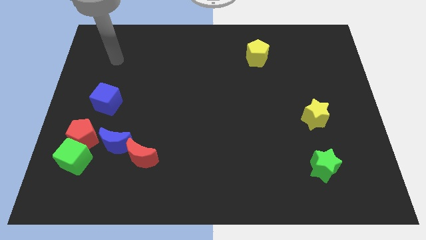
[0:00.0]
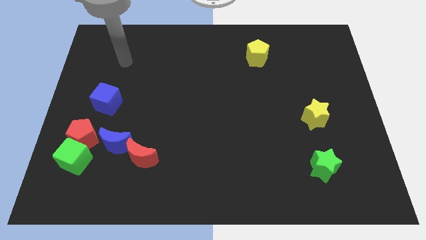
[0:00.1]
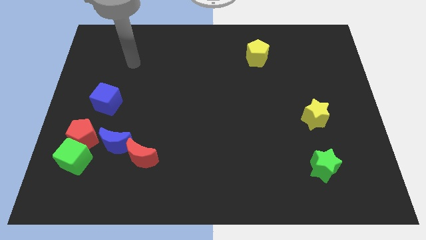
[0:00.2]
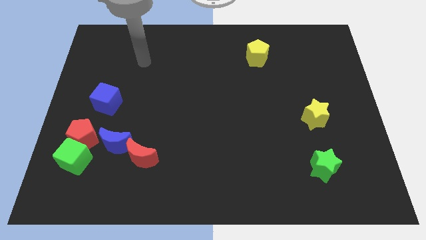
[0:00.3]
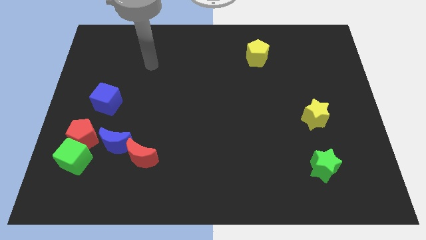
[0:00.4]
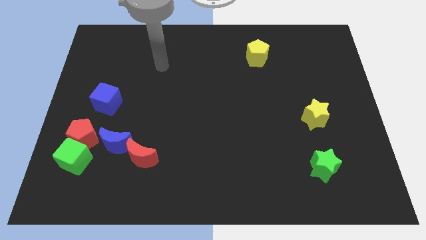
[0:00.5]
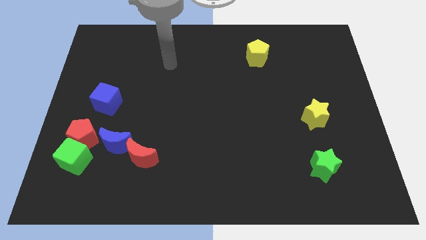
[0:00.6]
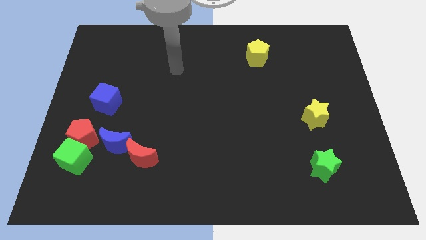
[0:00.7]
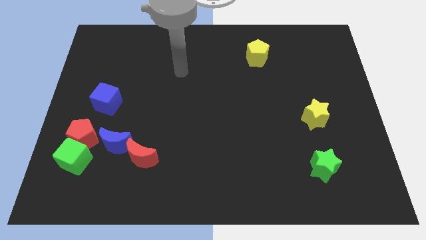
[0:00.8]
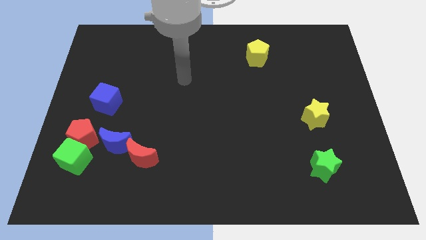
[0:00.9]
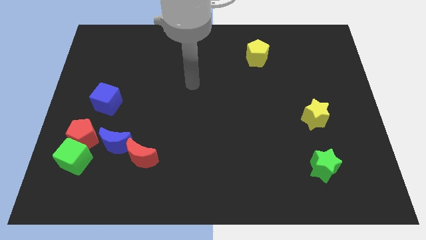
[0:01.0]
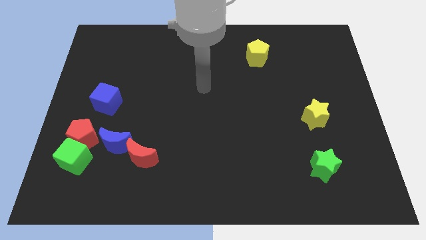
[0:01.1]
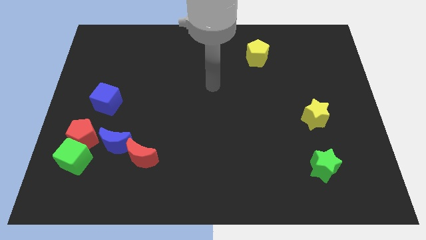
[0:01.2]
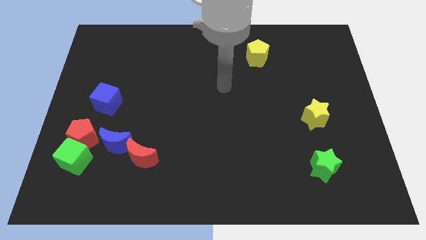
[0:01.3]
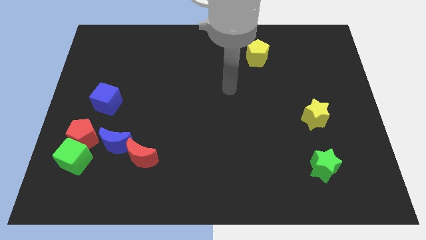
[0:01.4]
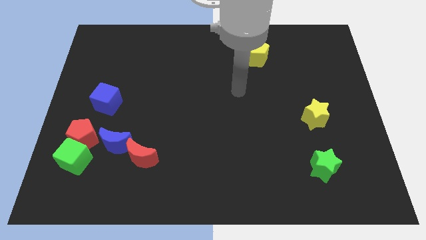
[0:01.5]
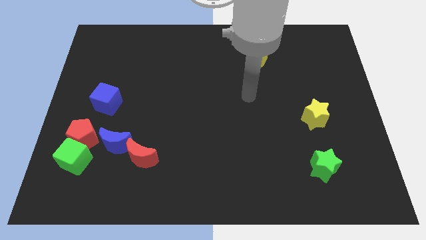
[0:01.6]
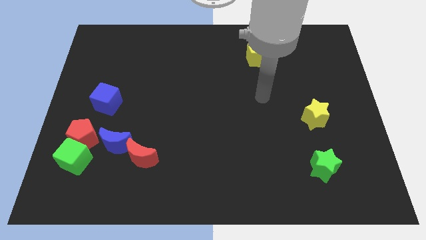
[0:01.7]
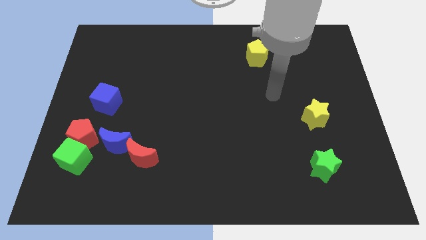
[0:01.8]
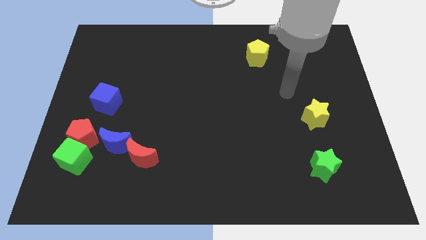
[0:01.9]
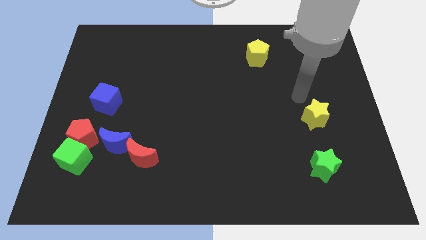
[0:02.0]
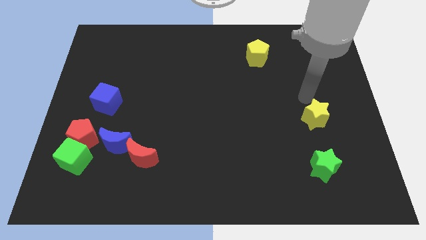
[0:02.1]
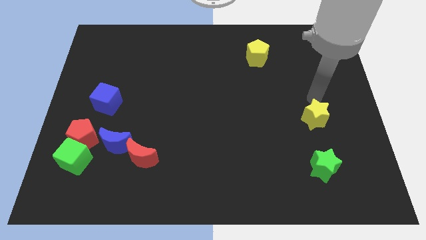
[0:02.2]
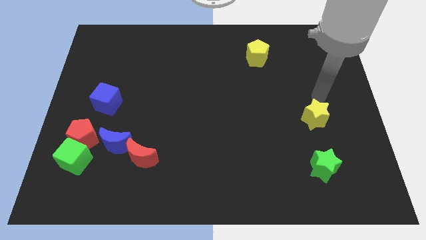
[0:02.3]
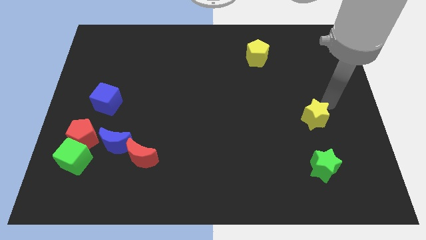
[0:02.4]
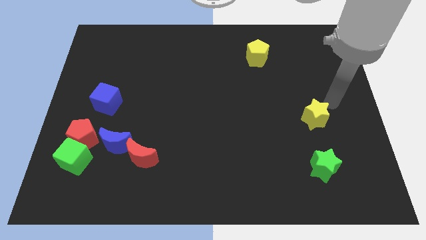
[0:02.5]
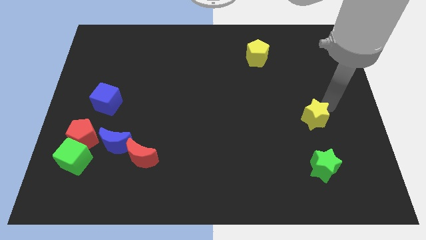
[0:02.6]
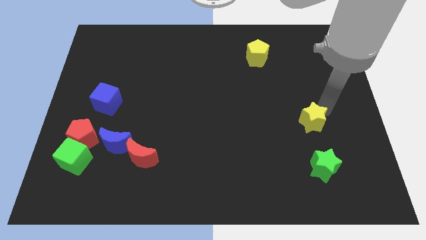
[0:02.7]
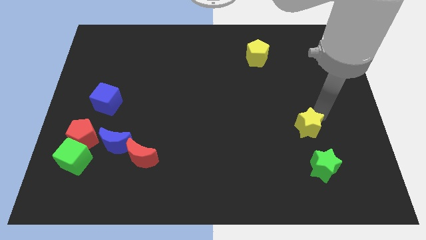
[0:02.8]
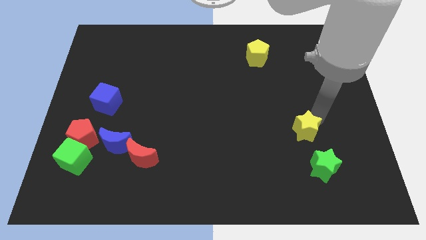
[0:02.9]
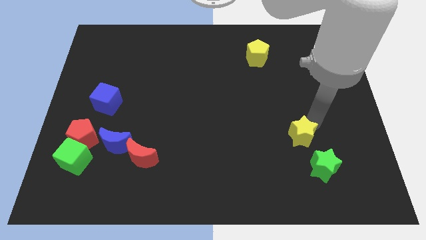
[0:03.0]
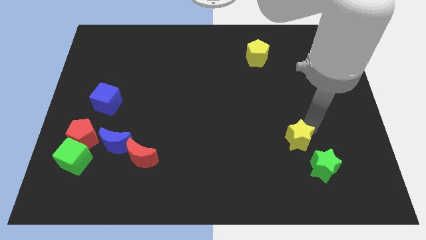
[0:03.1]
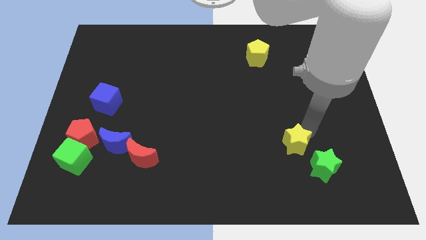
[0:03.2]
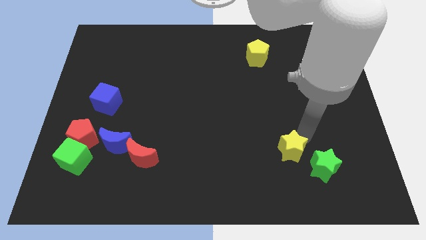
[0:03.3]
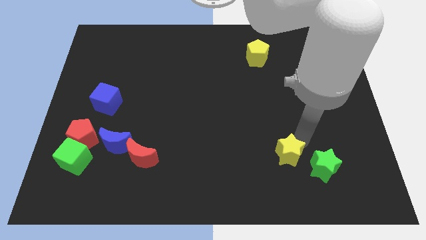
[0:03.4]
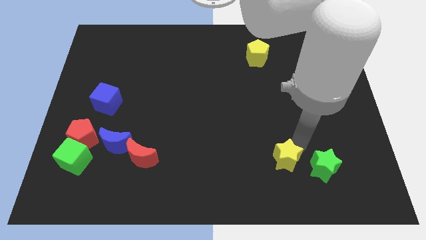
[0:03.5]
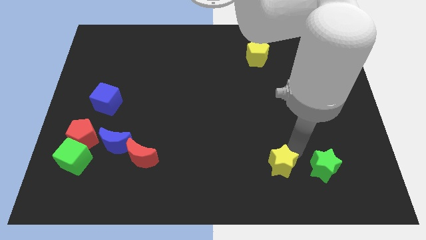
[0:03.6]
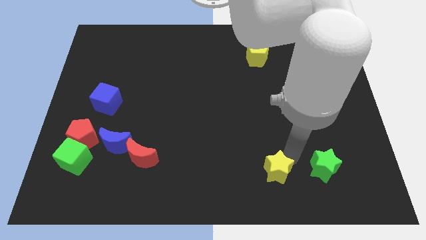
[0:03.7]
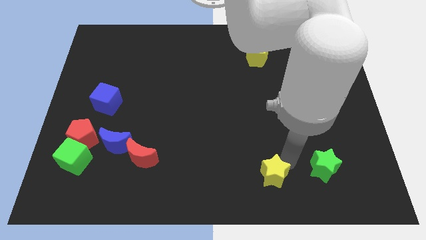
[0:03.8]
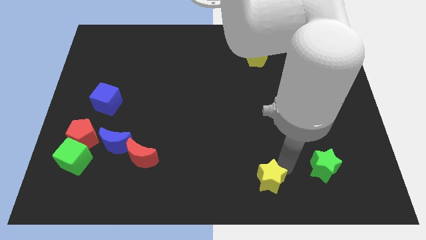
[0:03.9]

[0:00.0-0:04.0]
put the yellow star to the bottom side

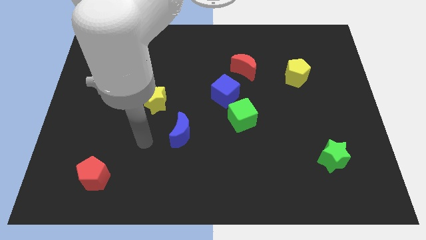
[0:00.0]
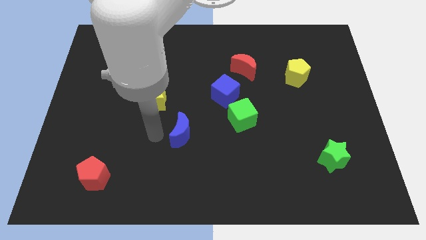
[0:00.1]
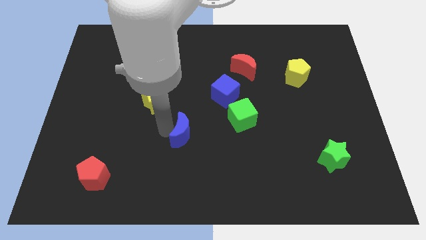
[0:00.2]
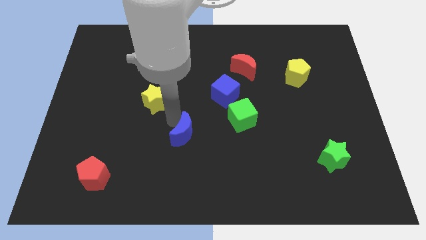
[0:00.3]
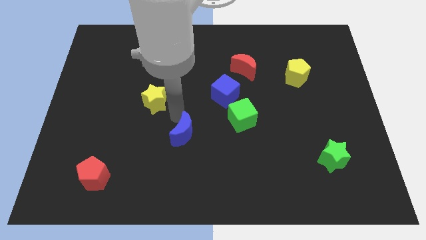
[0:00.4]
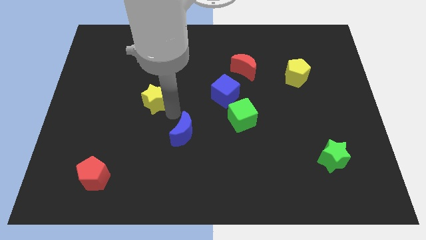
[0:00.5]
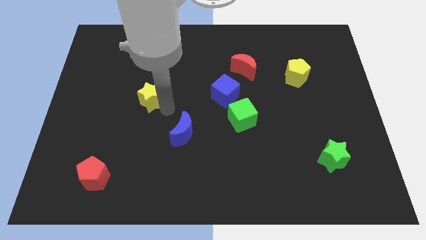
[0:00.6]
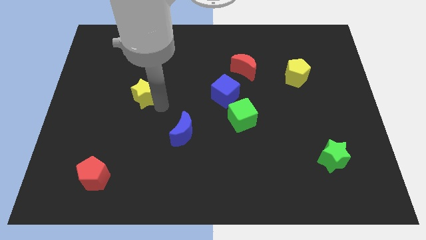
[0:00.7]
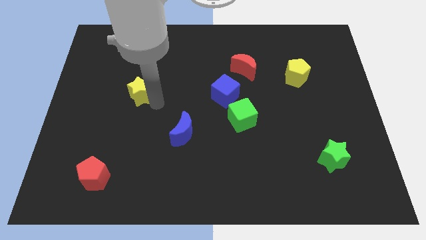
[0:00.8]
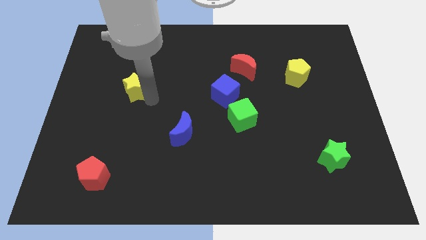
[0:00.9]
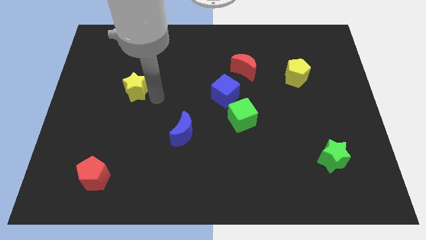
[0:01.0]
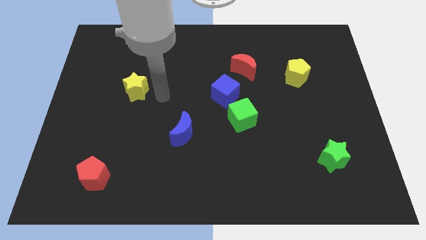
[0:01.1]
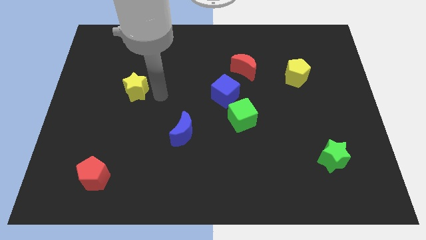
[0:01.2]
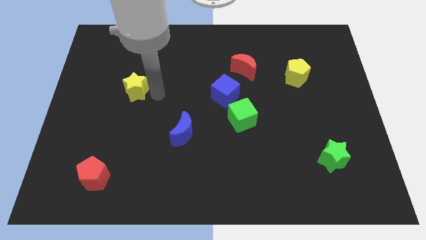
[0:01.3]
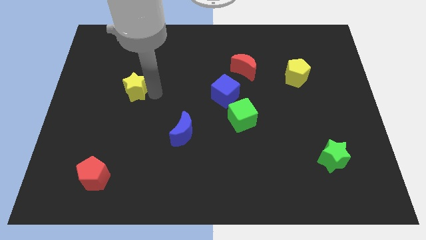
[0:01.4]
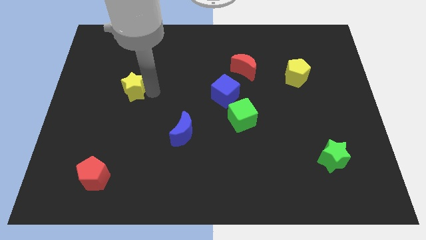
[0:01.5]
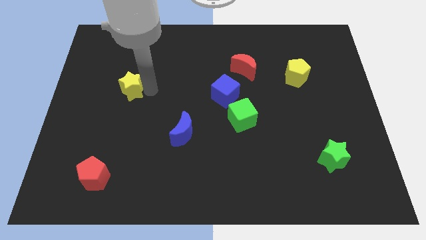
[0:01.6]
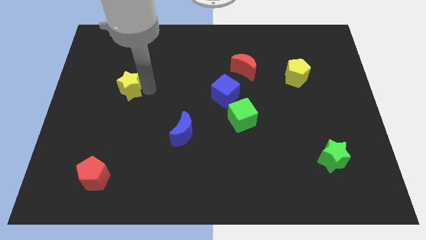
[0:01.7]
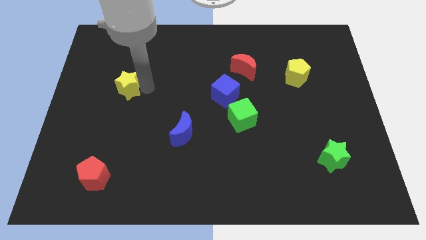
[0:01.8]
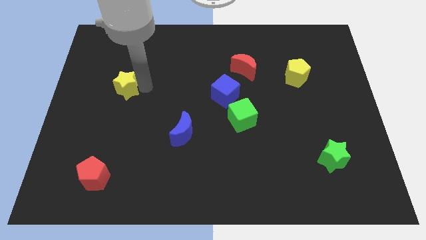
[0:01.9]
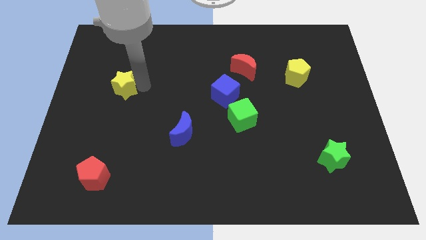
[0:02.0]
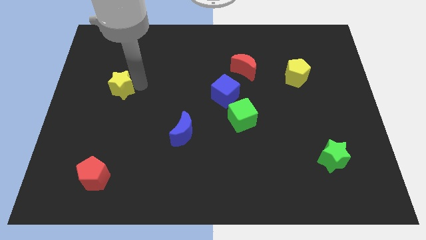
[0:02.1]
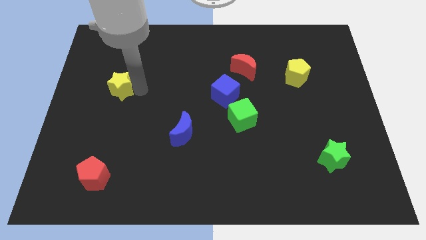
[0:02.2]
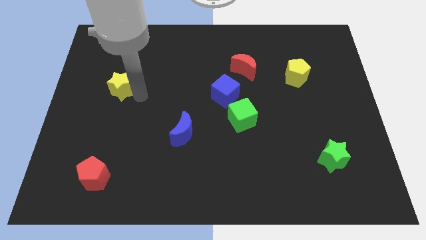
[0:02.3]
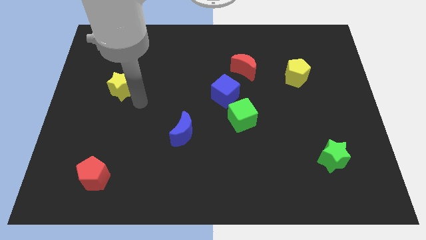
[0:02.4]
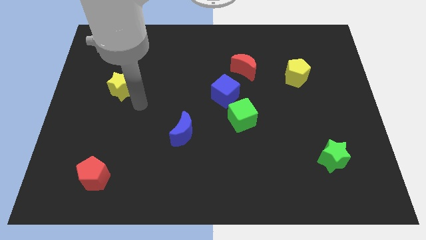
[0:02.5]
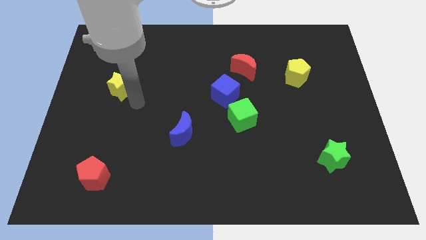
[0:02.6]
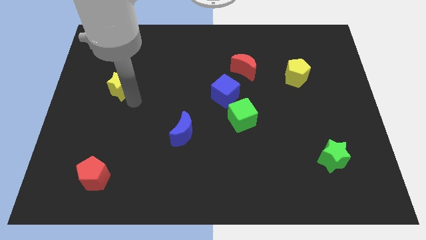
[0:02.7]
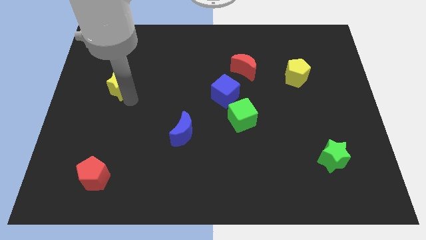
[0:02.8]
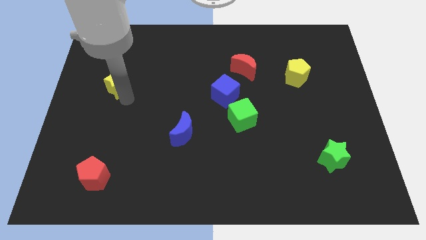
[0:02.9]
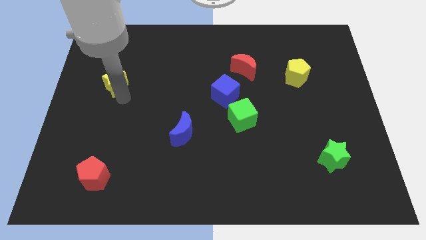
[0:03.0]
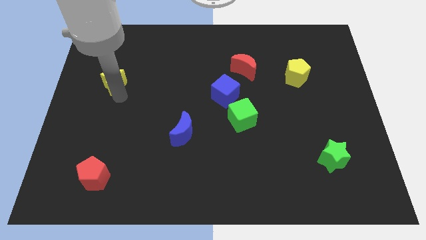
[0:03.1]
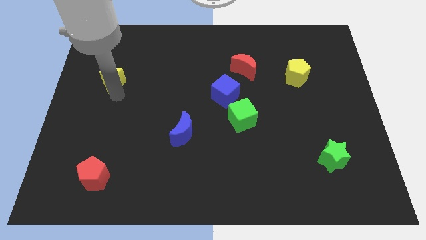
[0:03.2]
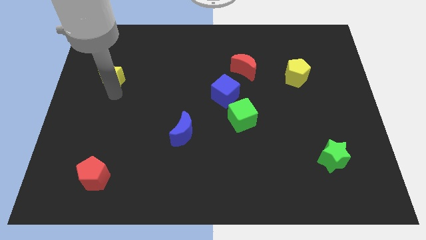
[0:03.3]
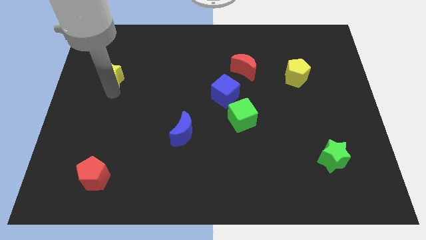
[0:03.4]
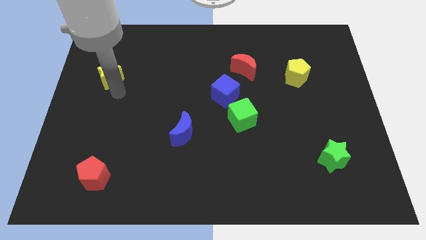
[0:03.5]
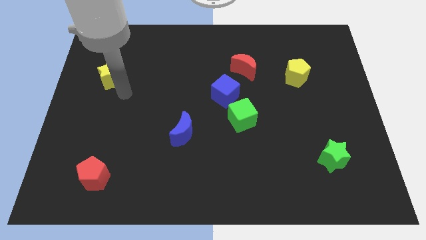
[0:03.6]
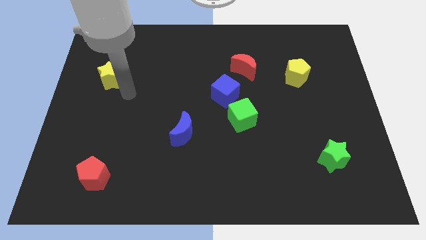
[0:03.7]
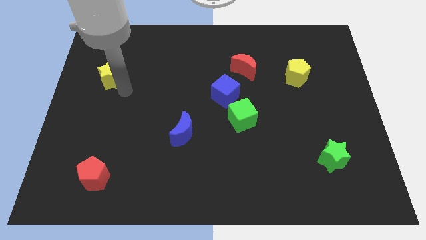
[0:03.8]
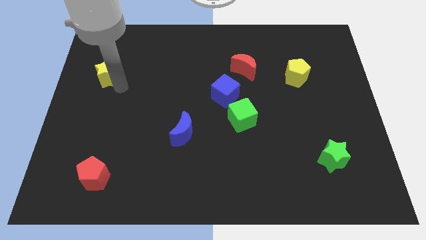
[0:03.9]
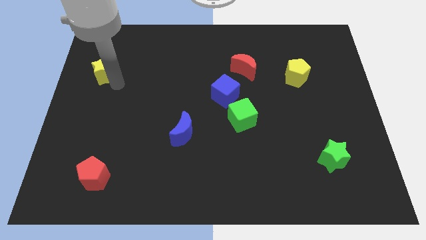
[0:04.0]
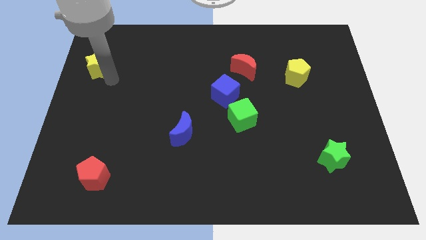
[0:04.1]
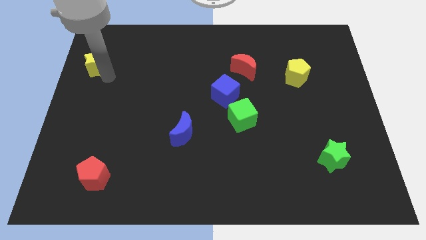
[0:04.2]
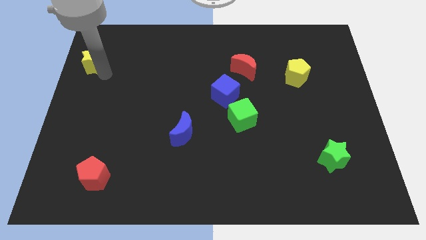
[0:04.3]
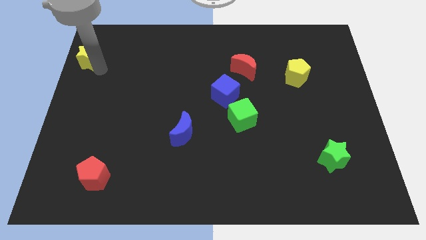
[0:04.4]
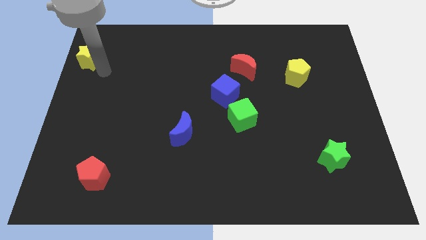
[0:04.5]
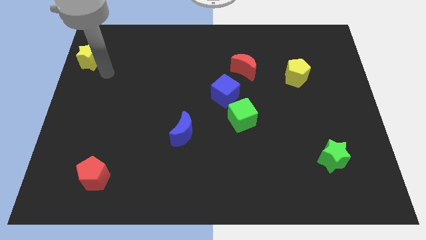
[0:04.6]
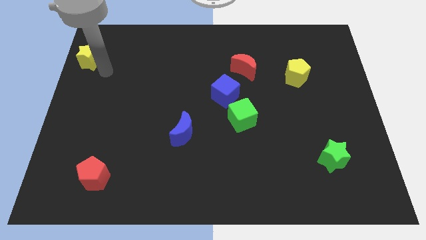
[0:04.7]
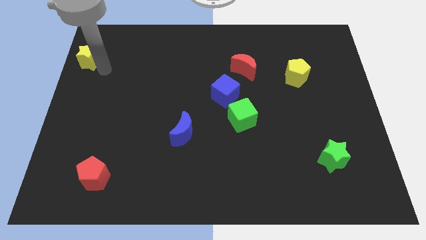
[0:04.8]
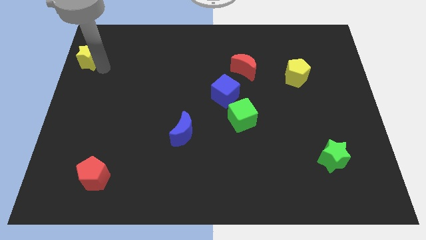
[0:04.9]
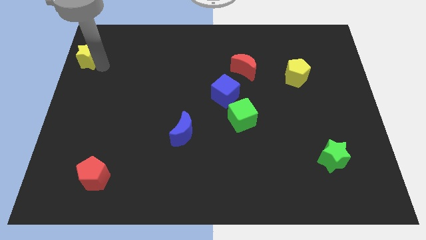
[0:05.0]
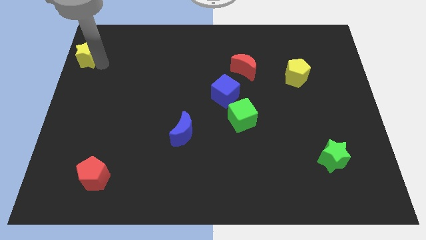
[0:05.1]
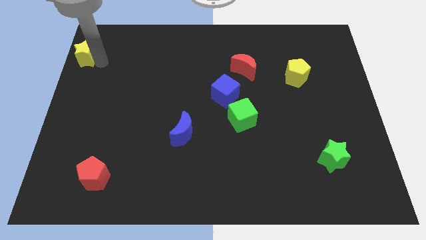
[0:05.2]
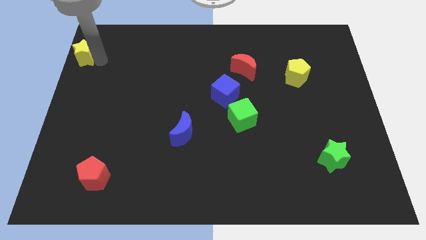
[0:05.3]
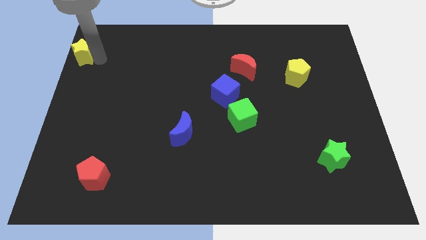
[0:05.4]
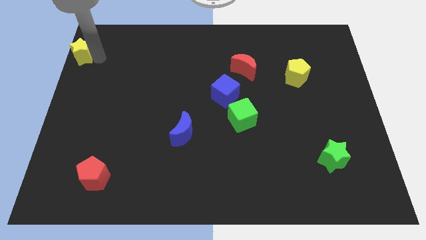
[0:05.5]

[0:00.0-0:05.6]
push the yellow star to the top left
